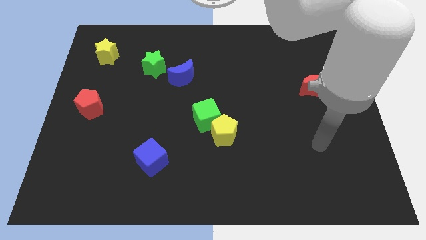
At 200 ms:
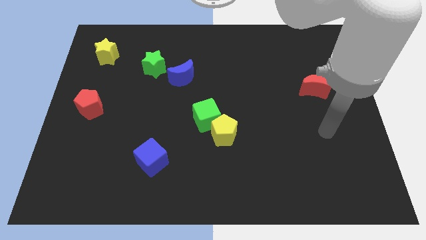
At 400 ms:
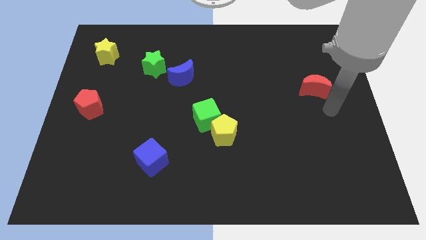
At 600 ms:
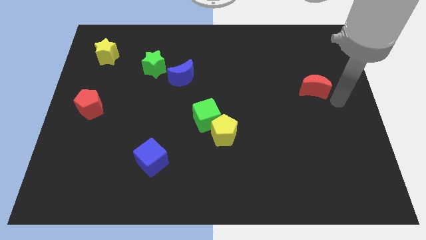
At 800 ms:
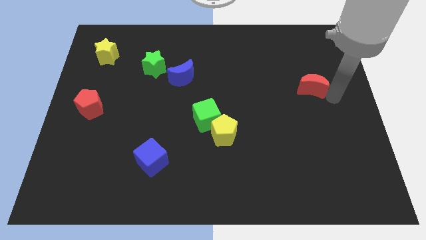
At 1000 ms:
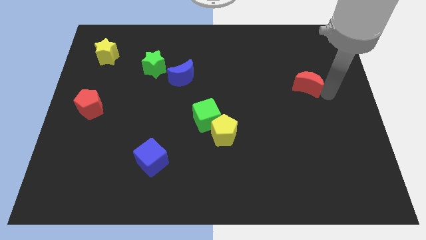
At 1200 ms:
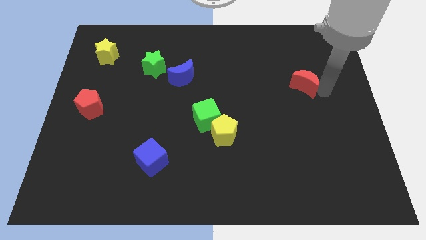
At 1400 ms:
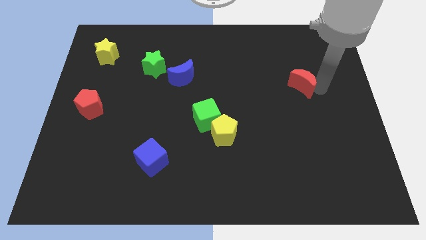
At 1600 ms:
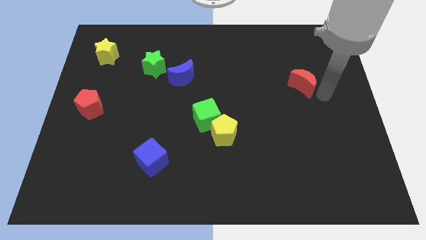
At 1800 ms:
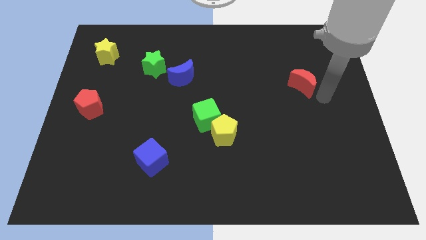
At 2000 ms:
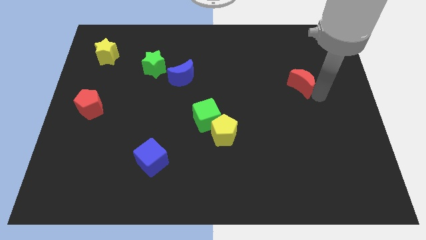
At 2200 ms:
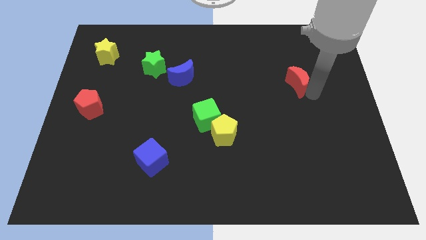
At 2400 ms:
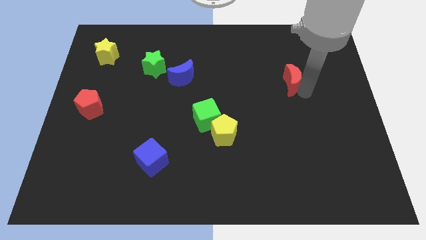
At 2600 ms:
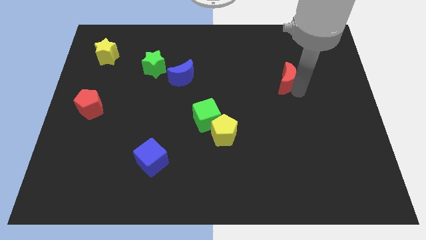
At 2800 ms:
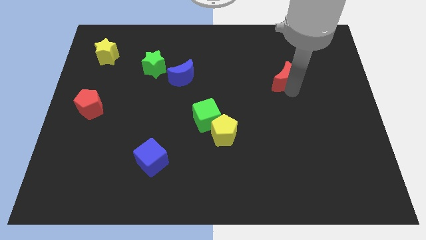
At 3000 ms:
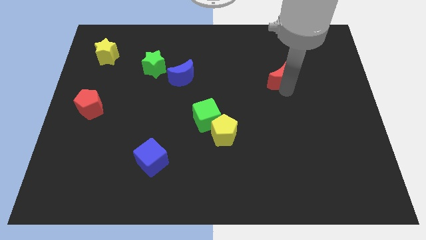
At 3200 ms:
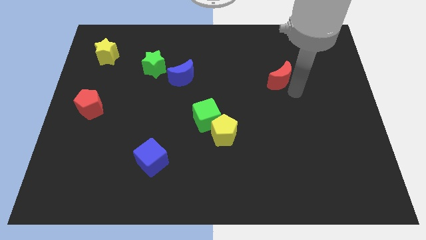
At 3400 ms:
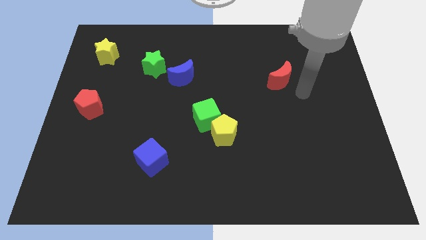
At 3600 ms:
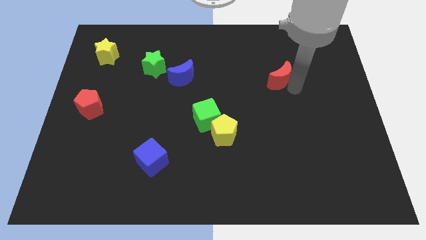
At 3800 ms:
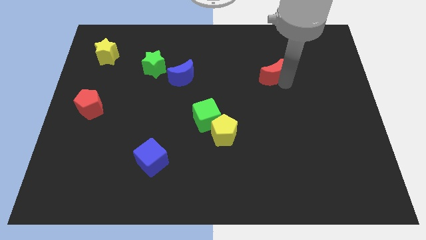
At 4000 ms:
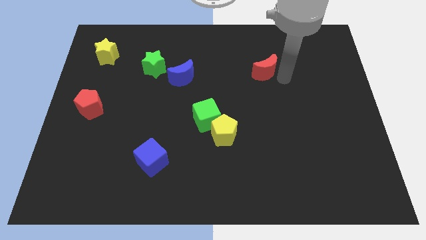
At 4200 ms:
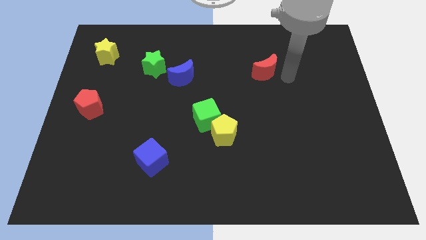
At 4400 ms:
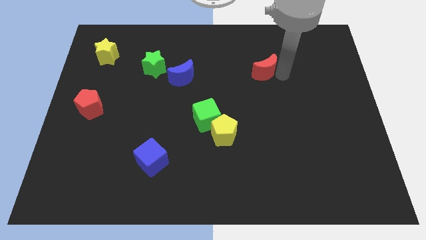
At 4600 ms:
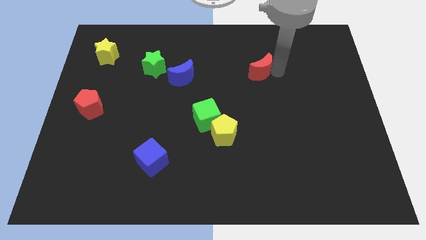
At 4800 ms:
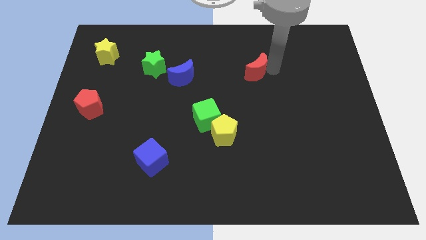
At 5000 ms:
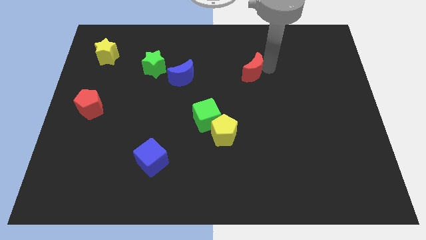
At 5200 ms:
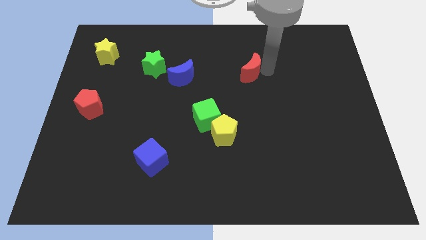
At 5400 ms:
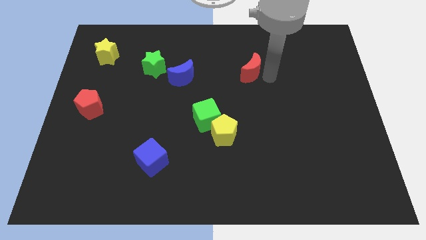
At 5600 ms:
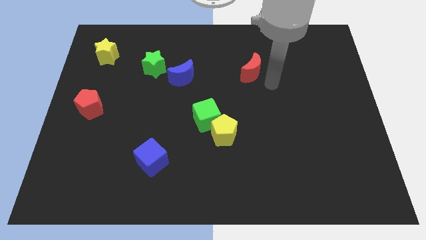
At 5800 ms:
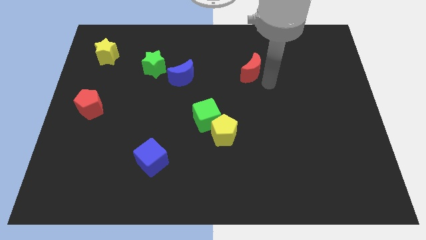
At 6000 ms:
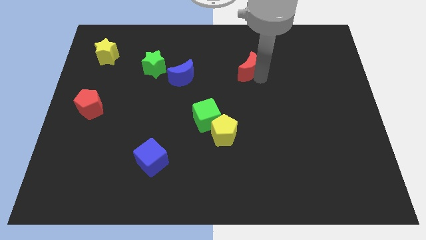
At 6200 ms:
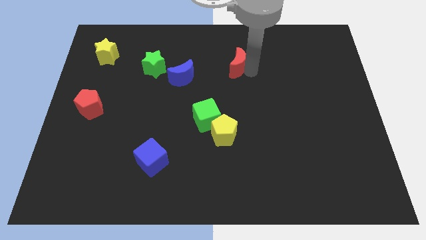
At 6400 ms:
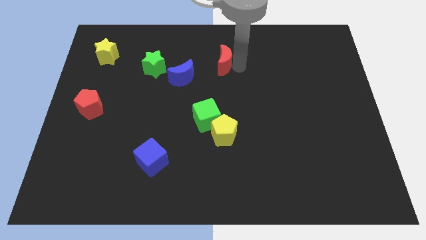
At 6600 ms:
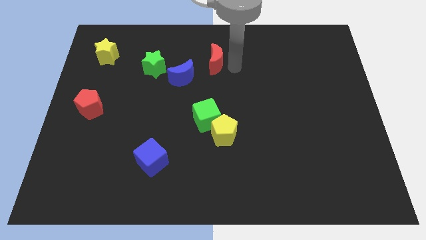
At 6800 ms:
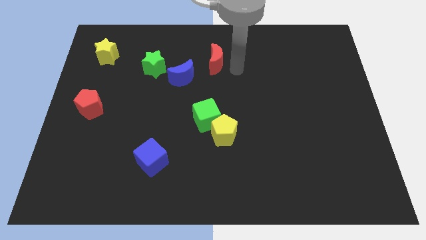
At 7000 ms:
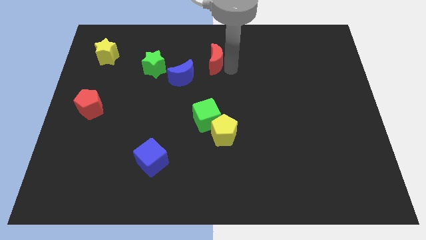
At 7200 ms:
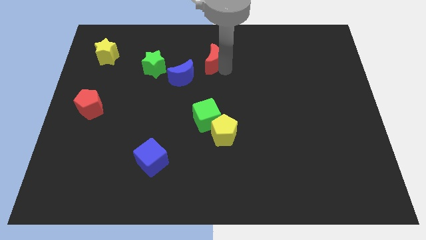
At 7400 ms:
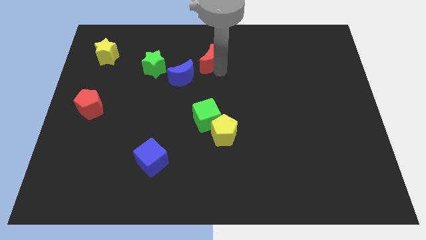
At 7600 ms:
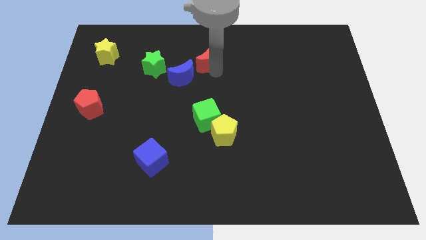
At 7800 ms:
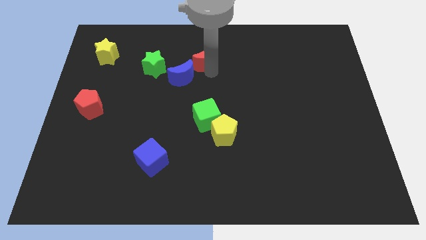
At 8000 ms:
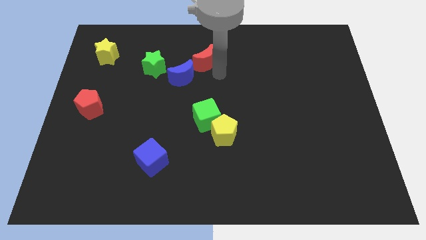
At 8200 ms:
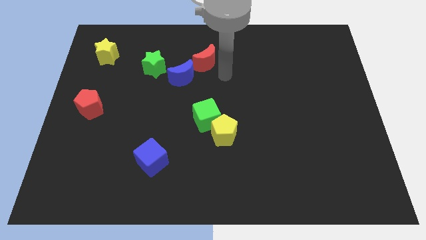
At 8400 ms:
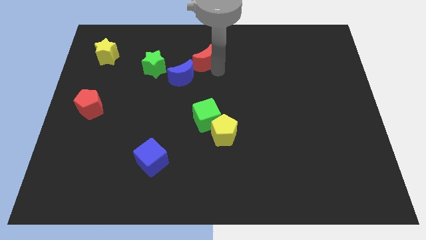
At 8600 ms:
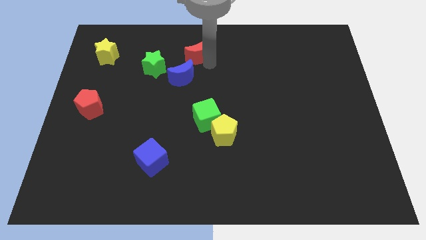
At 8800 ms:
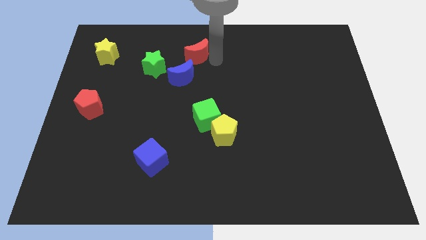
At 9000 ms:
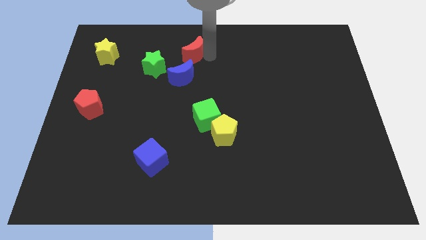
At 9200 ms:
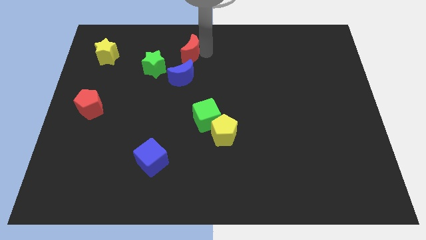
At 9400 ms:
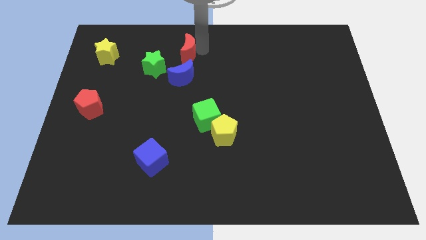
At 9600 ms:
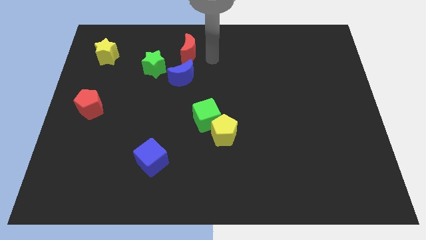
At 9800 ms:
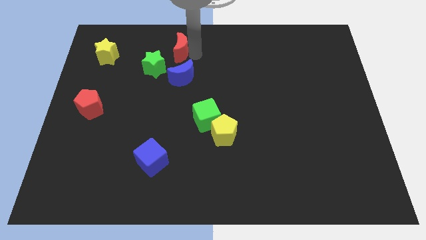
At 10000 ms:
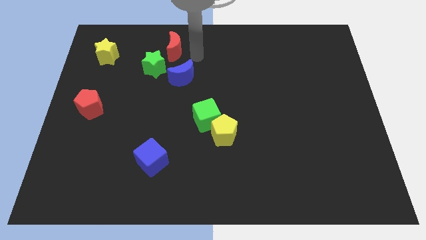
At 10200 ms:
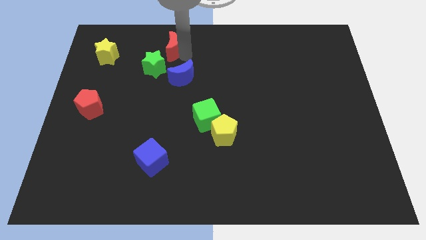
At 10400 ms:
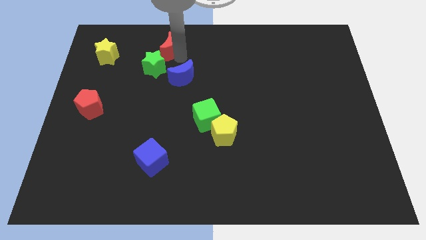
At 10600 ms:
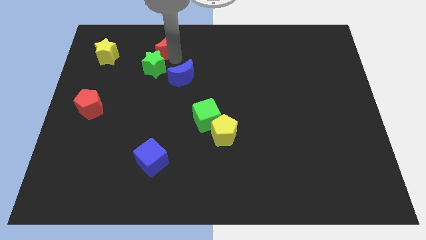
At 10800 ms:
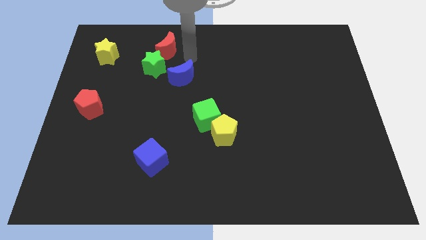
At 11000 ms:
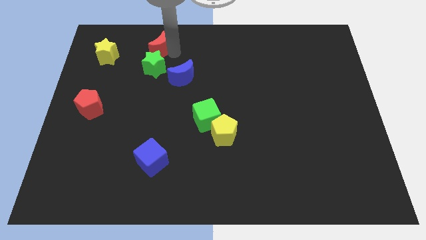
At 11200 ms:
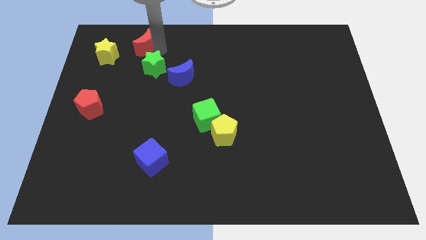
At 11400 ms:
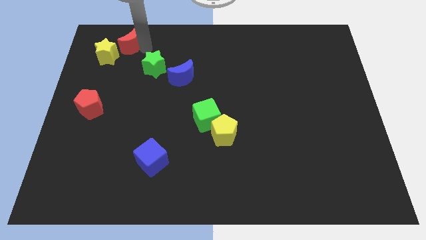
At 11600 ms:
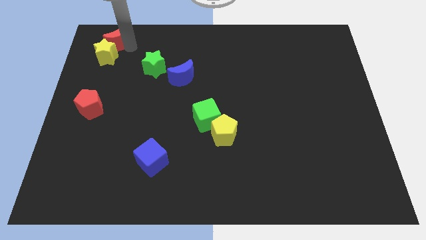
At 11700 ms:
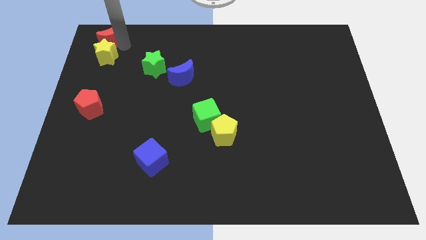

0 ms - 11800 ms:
push the red moon to the top left of the board

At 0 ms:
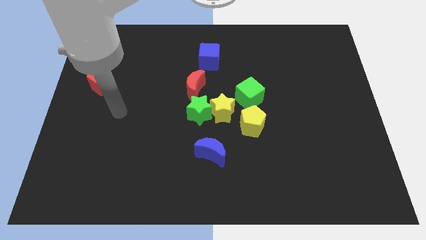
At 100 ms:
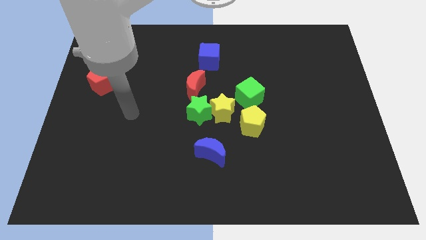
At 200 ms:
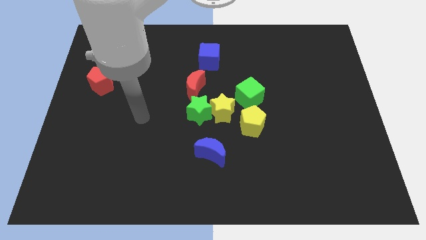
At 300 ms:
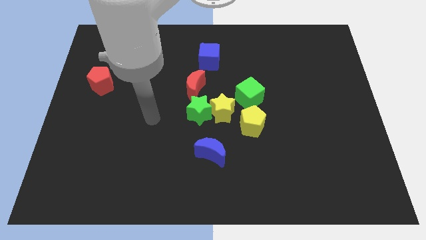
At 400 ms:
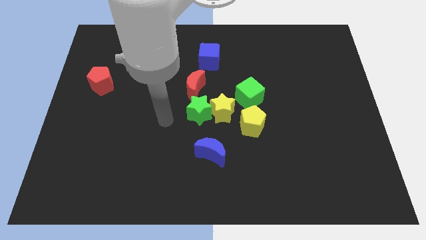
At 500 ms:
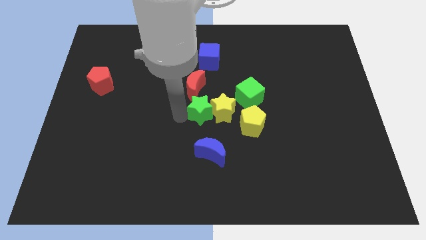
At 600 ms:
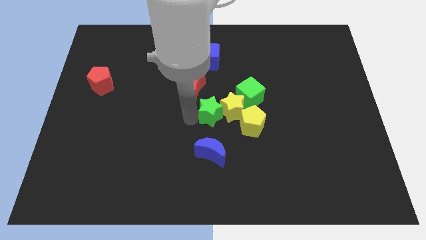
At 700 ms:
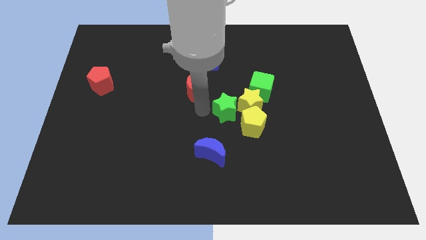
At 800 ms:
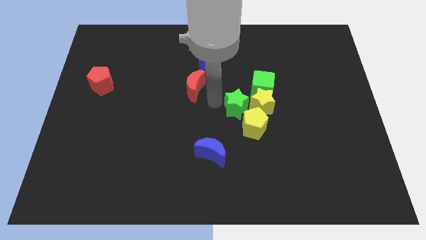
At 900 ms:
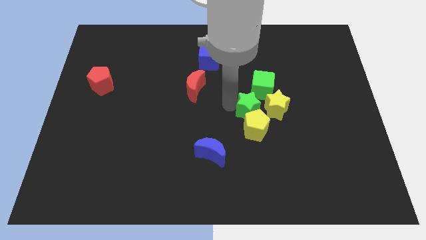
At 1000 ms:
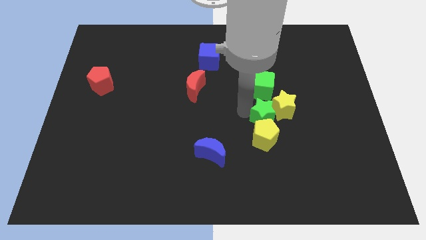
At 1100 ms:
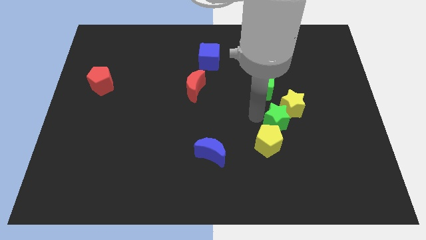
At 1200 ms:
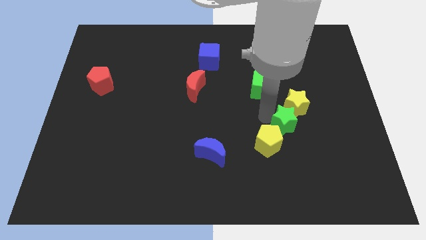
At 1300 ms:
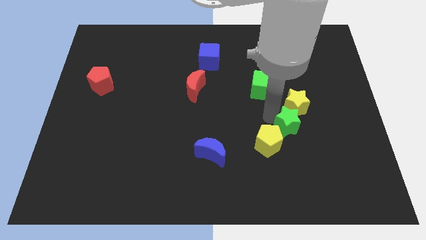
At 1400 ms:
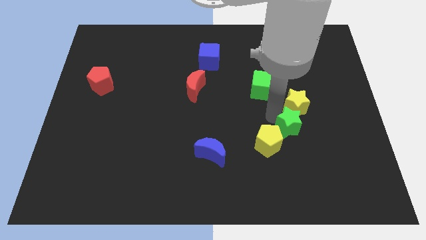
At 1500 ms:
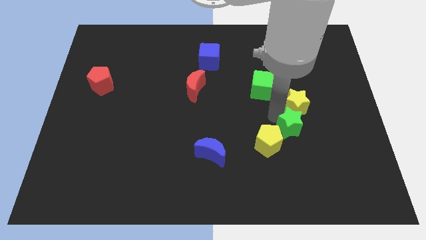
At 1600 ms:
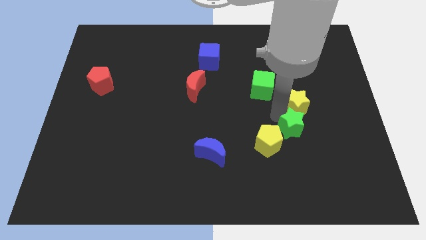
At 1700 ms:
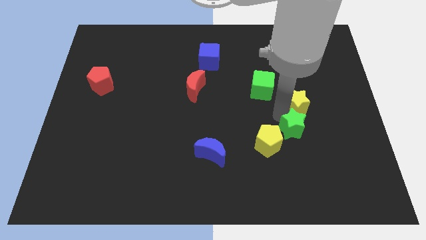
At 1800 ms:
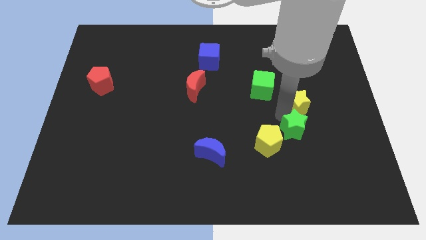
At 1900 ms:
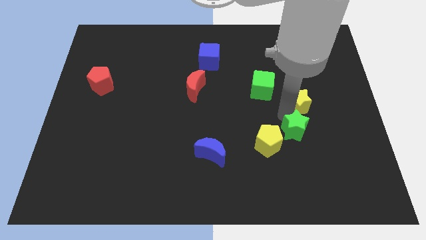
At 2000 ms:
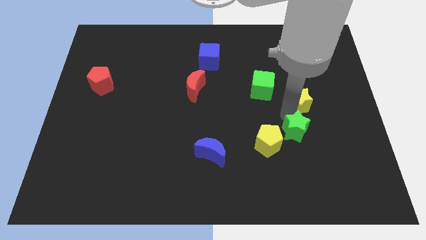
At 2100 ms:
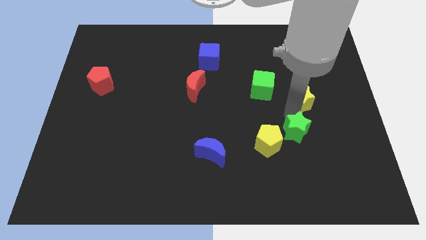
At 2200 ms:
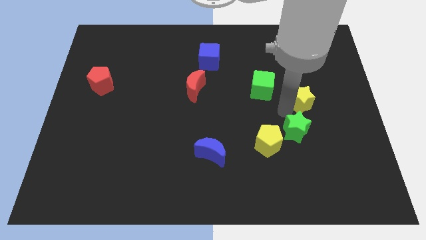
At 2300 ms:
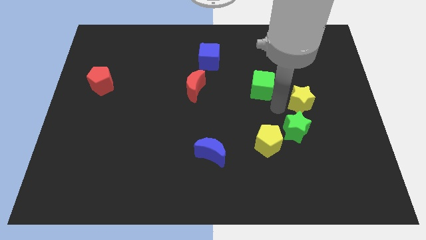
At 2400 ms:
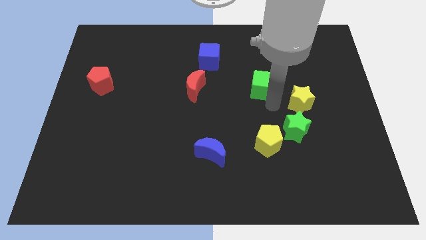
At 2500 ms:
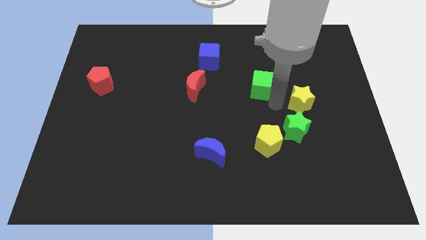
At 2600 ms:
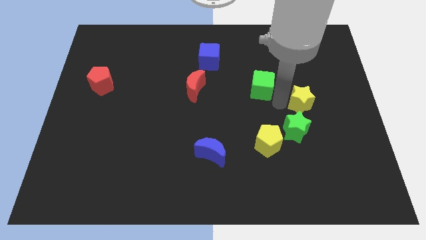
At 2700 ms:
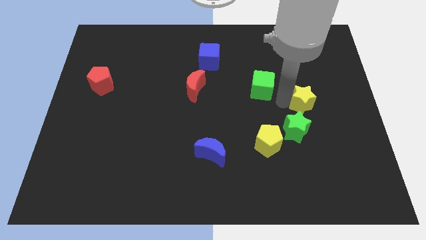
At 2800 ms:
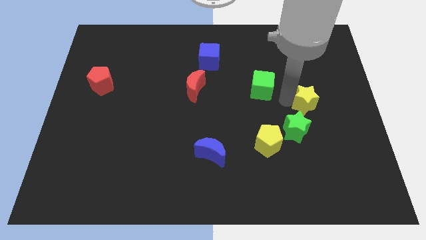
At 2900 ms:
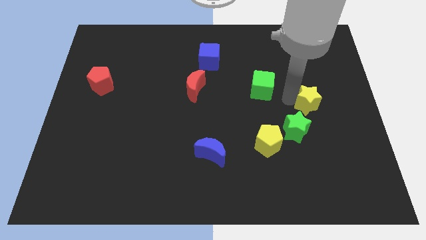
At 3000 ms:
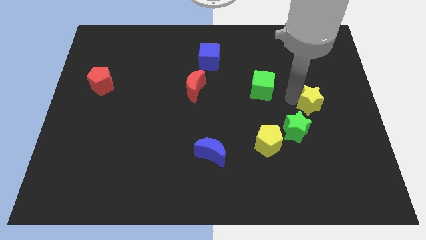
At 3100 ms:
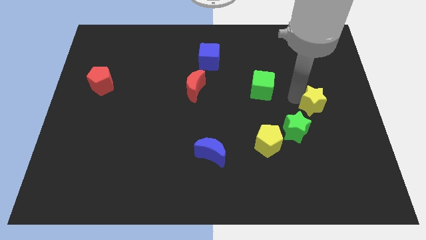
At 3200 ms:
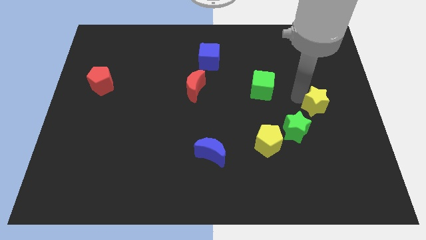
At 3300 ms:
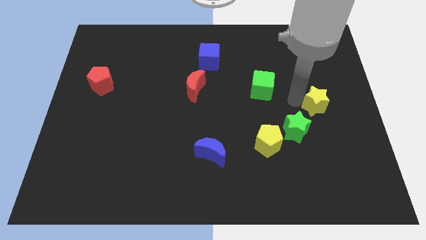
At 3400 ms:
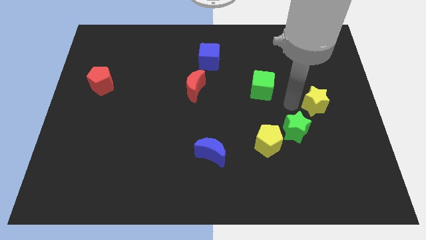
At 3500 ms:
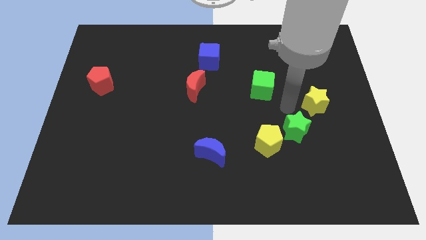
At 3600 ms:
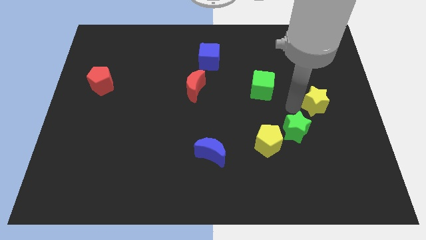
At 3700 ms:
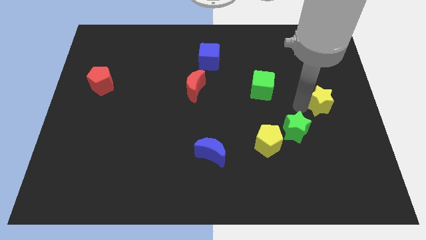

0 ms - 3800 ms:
push the yellow star to the right side of the board
